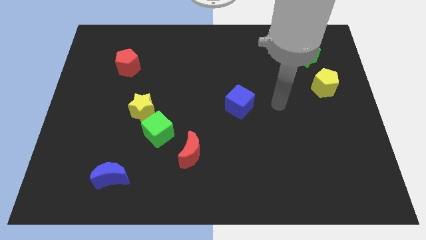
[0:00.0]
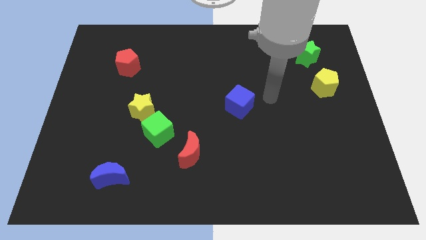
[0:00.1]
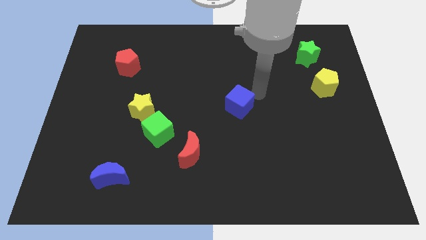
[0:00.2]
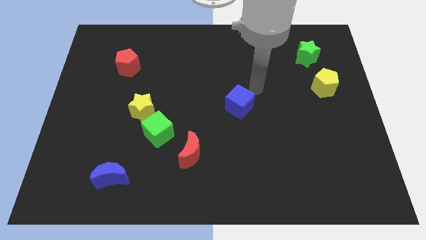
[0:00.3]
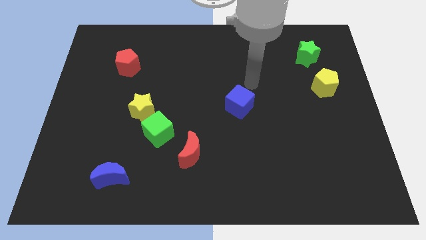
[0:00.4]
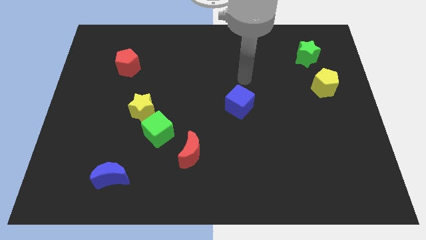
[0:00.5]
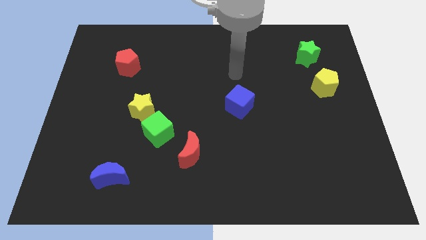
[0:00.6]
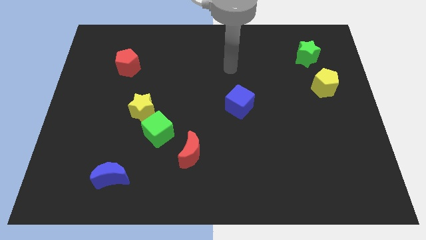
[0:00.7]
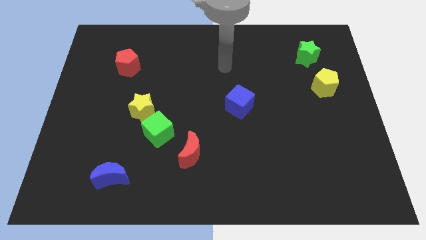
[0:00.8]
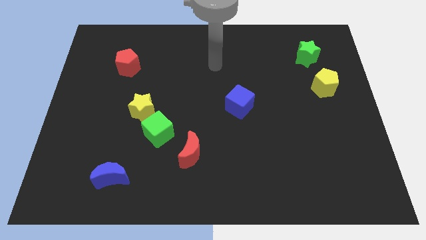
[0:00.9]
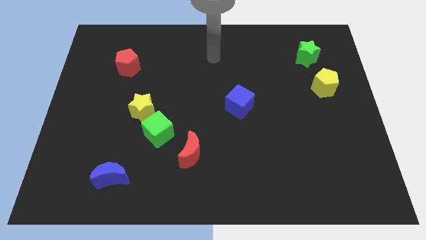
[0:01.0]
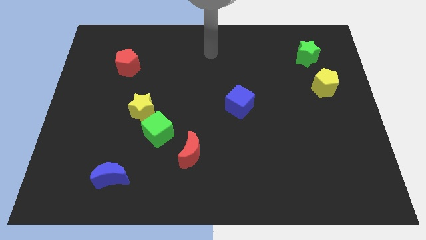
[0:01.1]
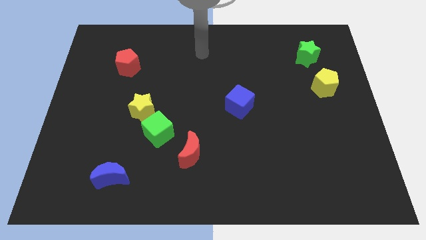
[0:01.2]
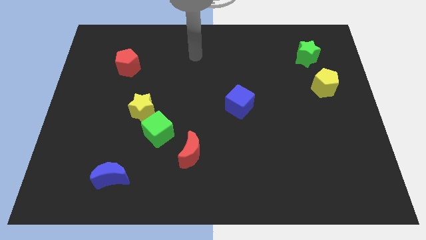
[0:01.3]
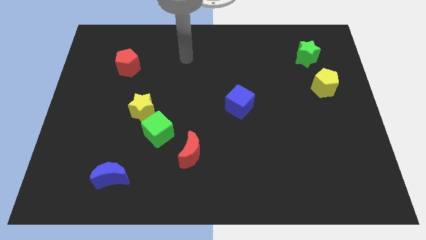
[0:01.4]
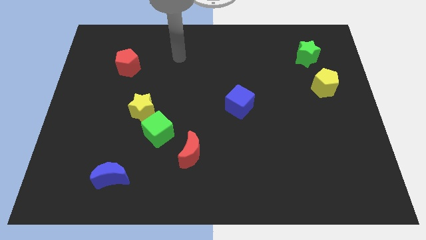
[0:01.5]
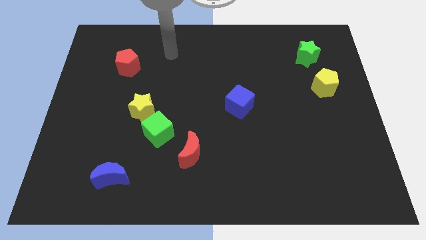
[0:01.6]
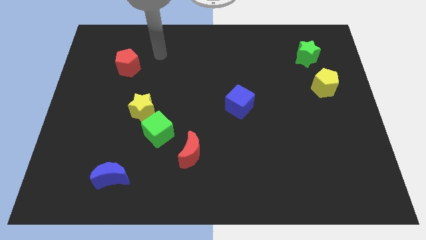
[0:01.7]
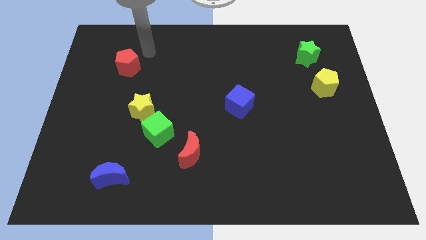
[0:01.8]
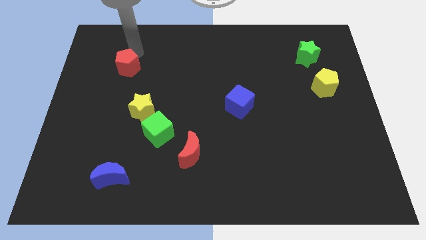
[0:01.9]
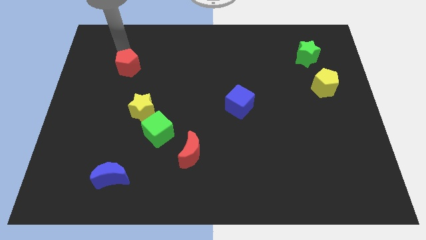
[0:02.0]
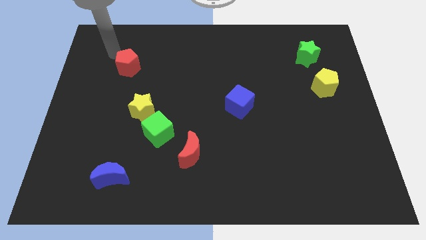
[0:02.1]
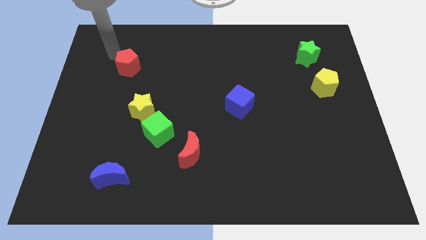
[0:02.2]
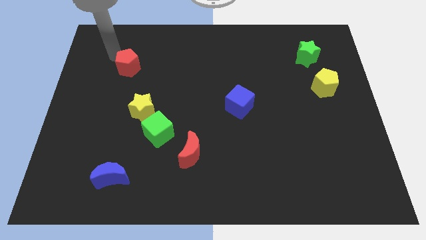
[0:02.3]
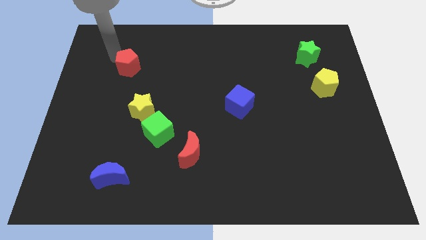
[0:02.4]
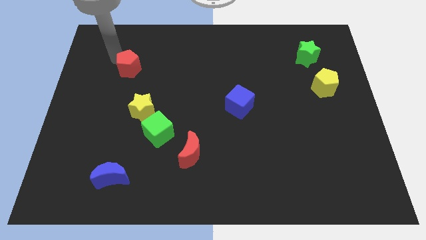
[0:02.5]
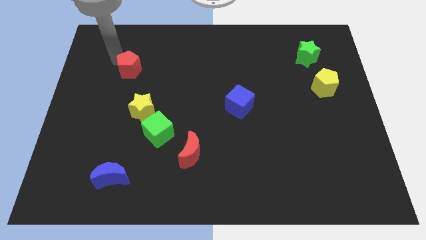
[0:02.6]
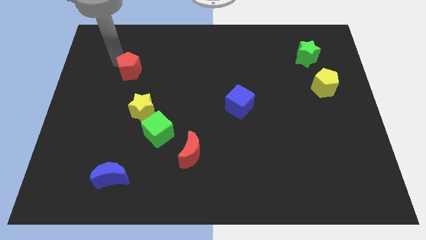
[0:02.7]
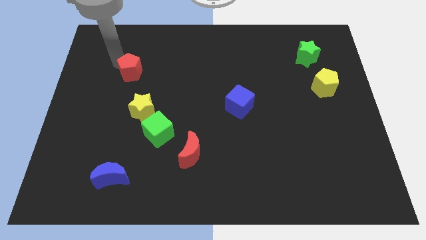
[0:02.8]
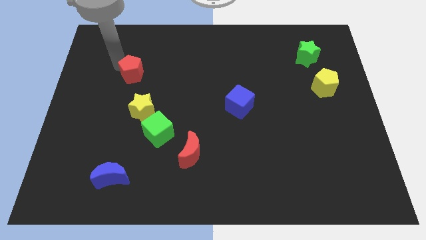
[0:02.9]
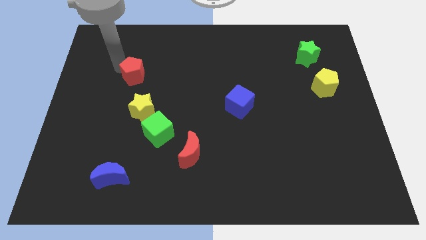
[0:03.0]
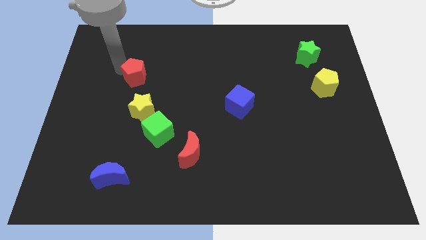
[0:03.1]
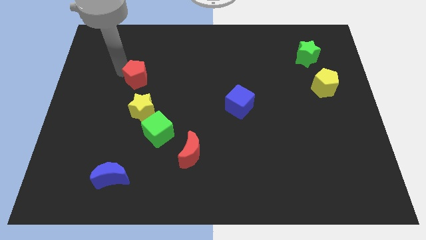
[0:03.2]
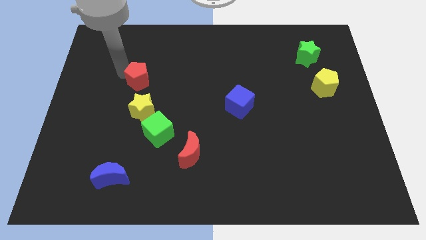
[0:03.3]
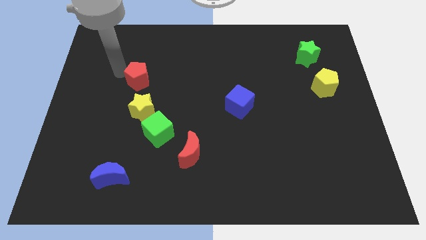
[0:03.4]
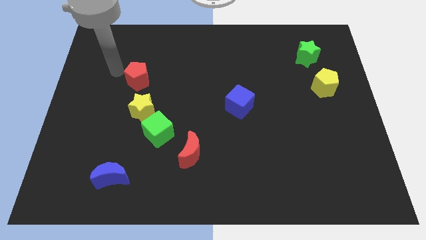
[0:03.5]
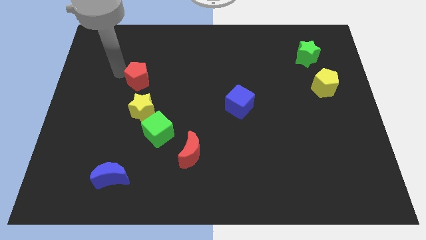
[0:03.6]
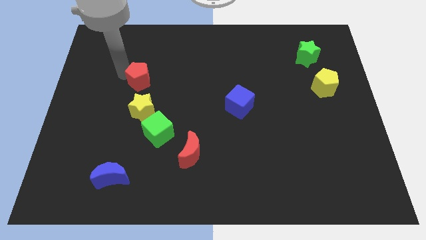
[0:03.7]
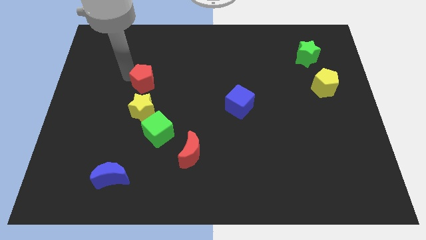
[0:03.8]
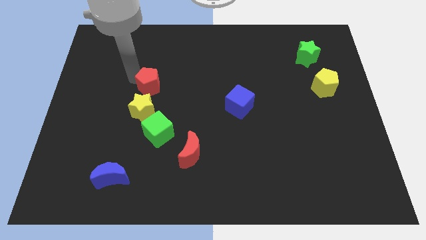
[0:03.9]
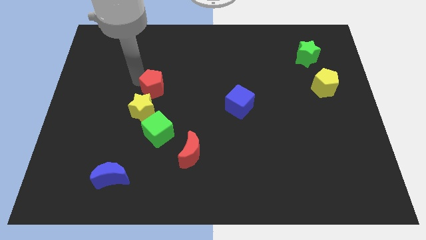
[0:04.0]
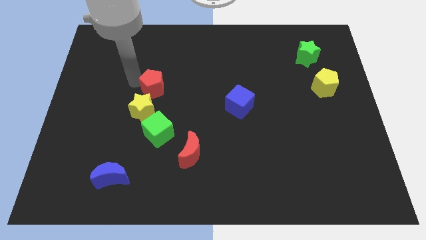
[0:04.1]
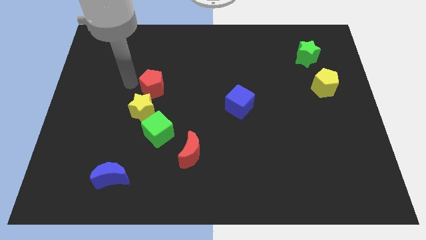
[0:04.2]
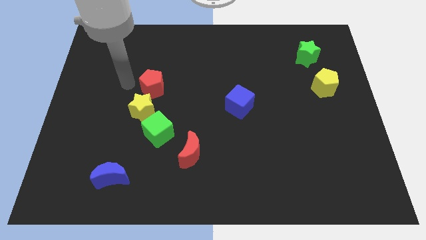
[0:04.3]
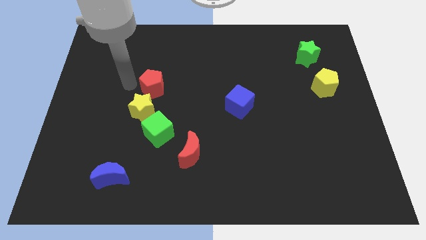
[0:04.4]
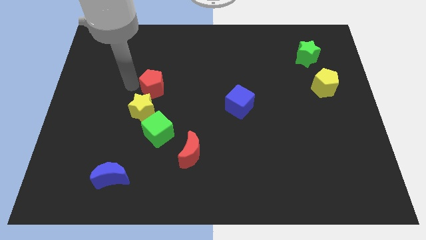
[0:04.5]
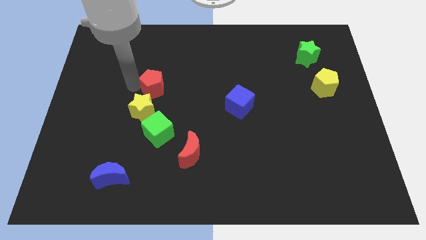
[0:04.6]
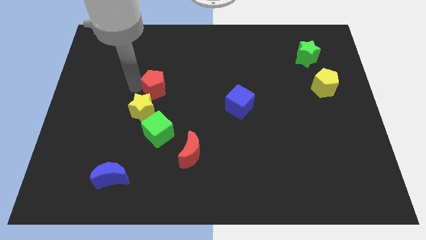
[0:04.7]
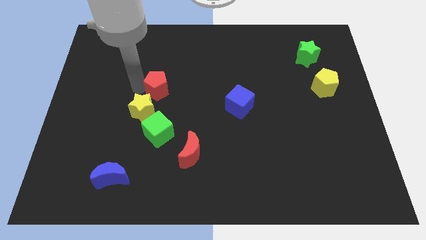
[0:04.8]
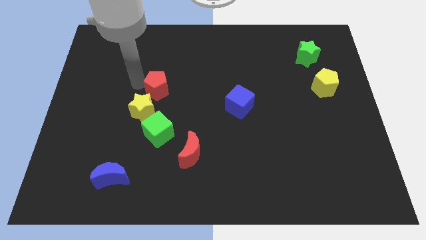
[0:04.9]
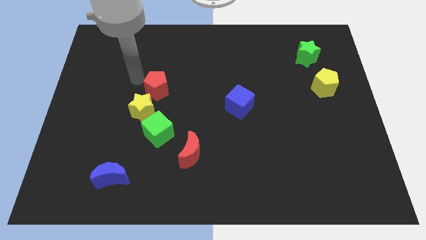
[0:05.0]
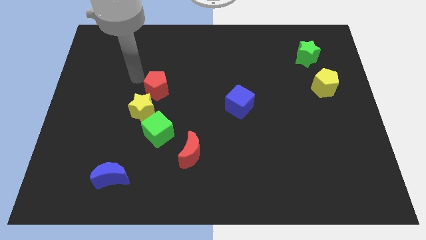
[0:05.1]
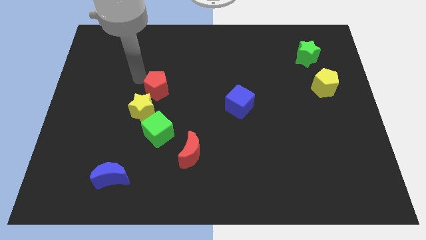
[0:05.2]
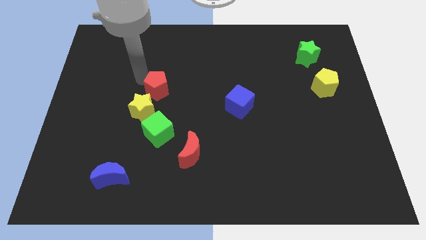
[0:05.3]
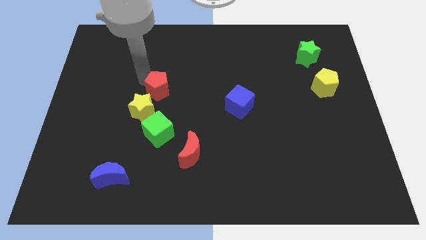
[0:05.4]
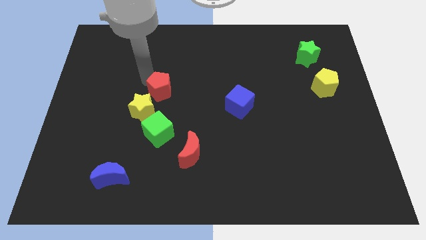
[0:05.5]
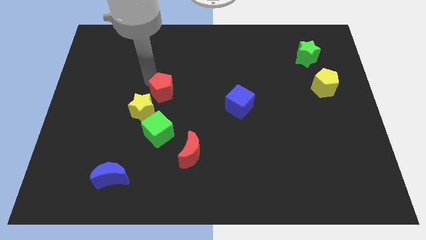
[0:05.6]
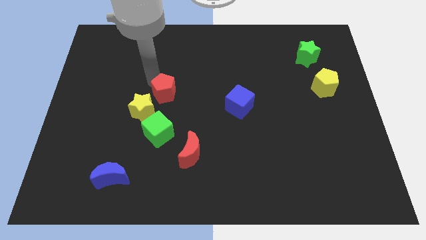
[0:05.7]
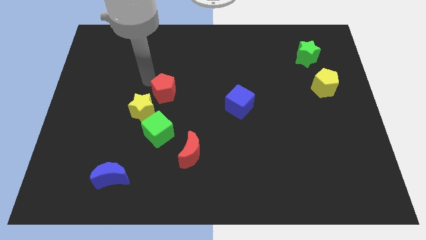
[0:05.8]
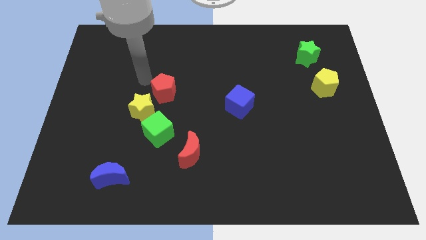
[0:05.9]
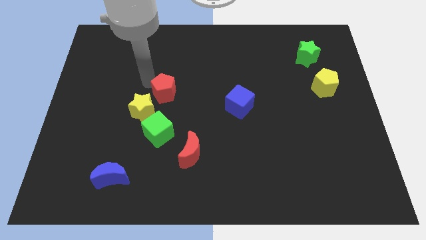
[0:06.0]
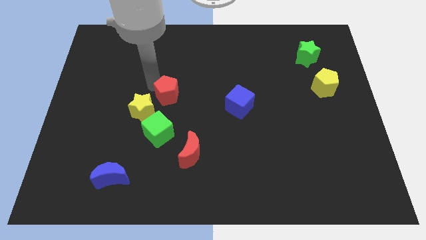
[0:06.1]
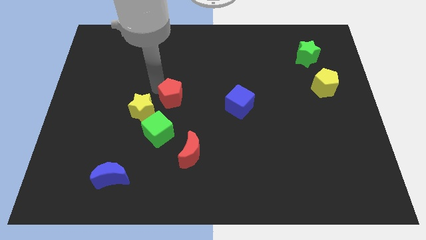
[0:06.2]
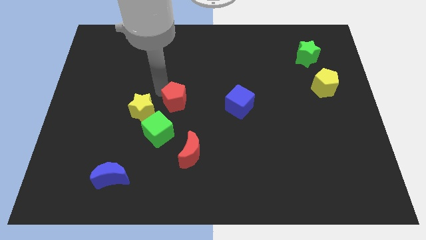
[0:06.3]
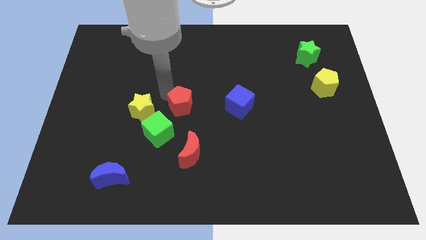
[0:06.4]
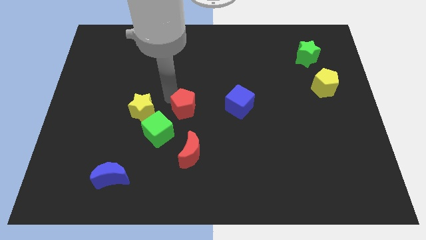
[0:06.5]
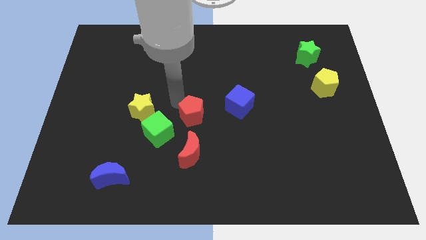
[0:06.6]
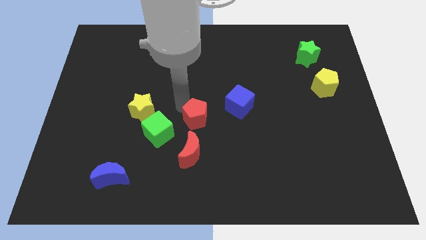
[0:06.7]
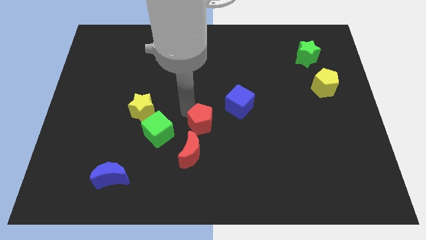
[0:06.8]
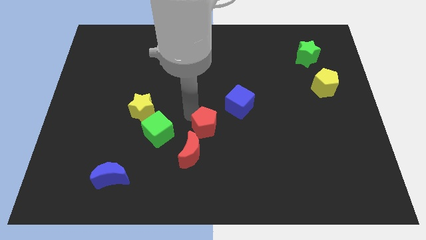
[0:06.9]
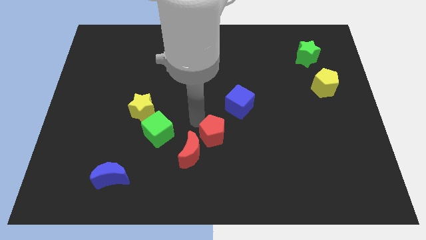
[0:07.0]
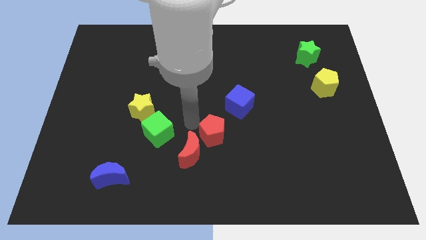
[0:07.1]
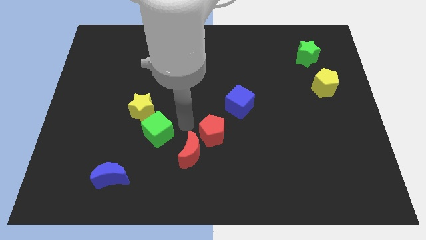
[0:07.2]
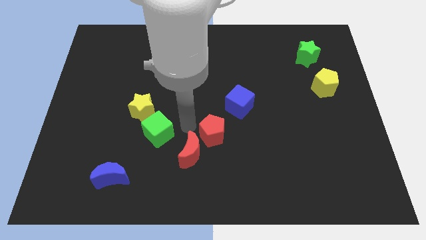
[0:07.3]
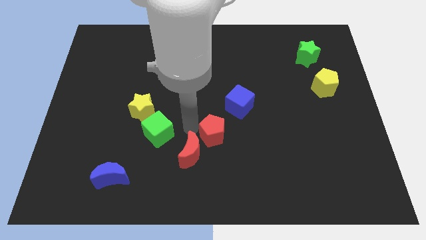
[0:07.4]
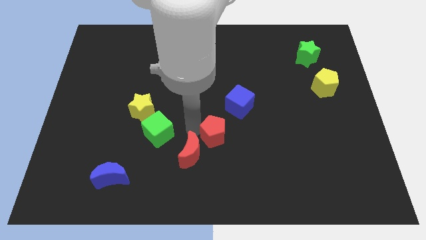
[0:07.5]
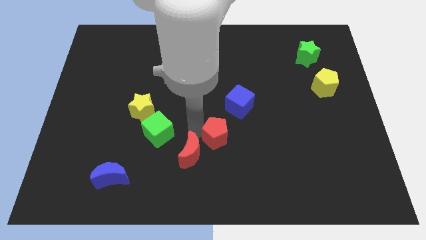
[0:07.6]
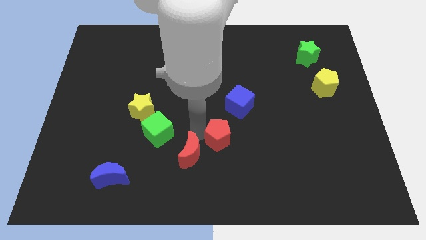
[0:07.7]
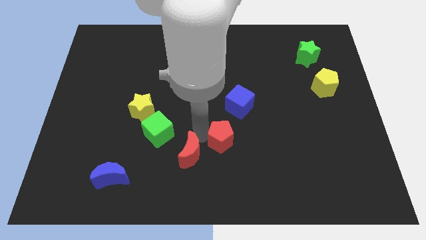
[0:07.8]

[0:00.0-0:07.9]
move the red pentagon below the blue cube
